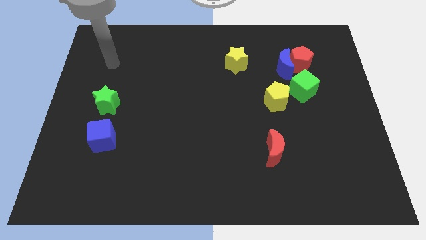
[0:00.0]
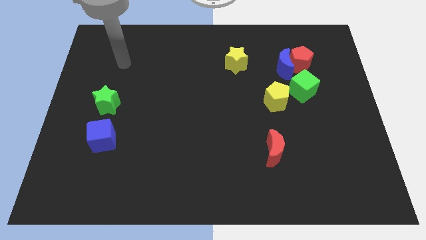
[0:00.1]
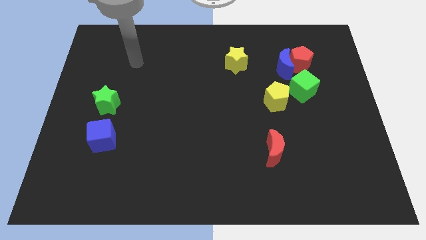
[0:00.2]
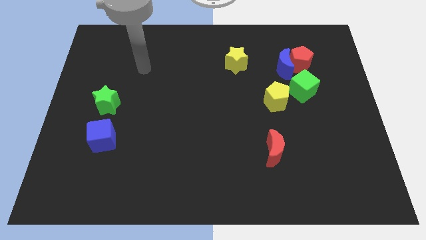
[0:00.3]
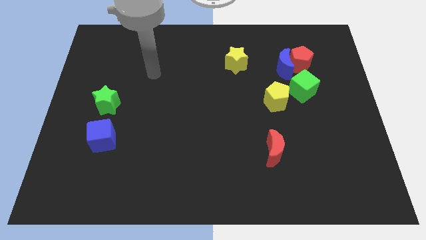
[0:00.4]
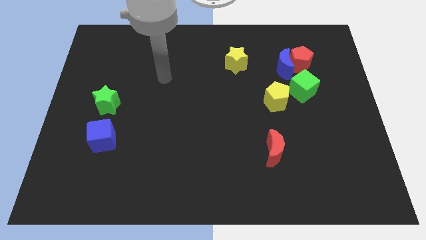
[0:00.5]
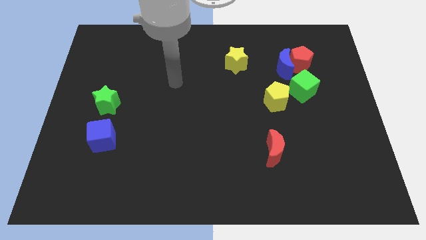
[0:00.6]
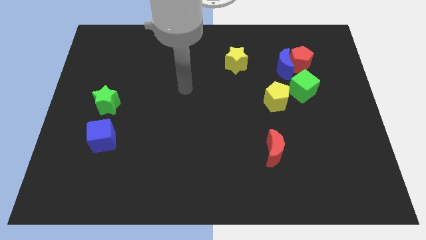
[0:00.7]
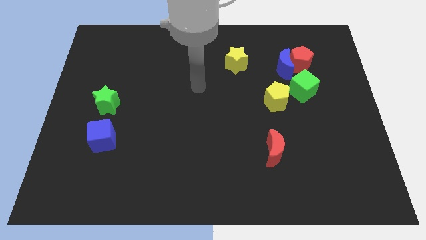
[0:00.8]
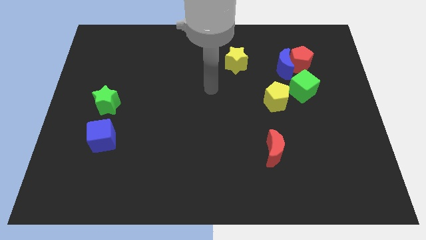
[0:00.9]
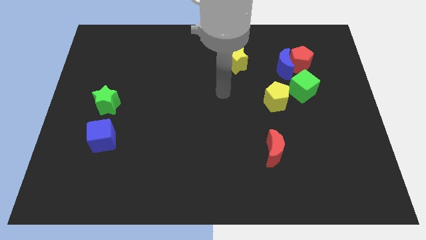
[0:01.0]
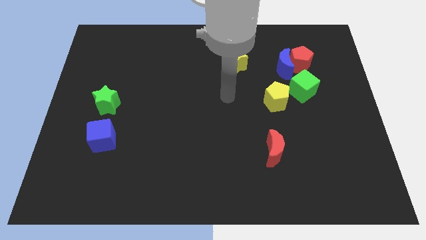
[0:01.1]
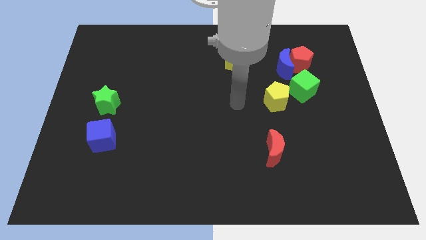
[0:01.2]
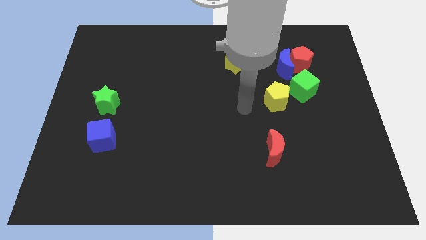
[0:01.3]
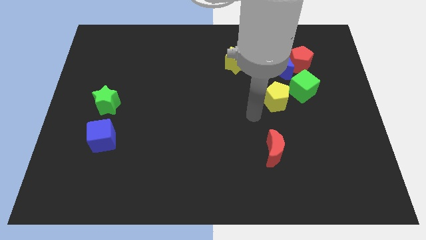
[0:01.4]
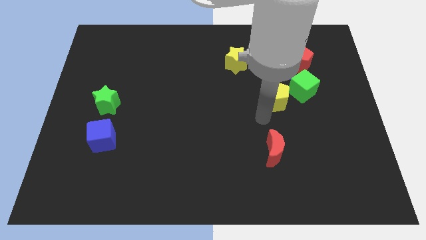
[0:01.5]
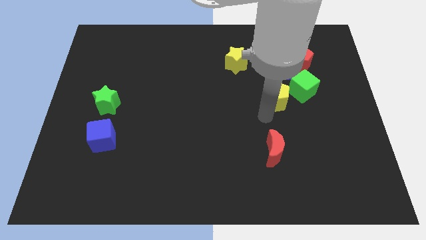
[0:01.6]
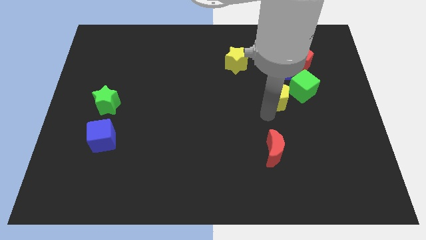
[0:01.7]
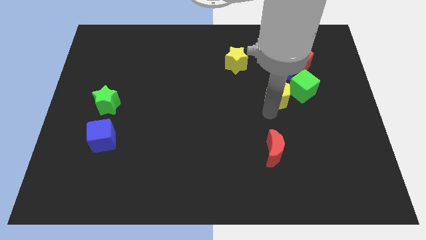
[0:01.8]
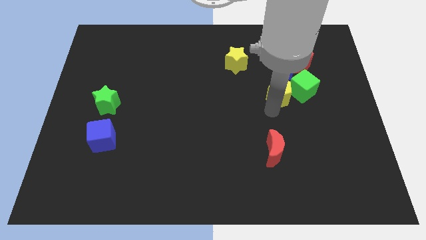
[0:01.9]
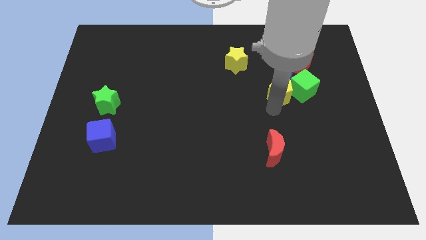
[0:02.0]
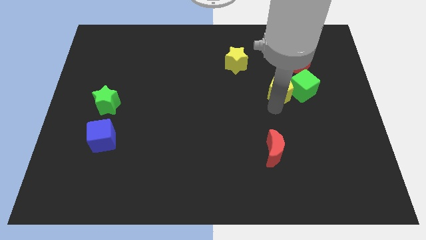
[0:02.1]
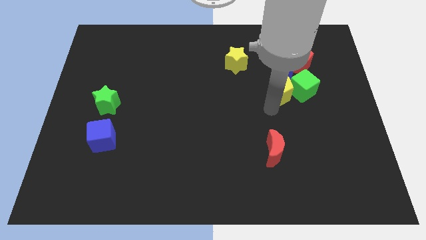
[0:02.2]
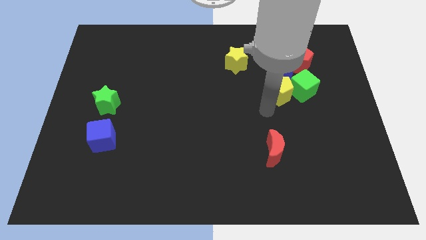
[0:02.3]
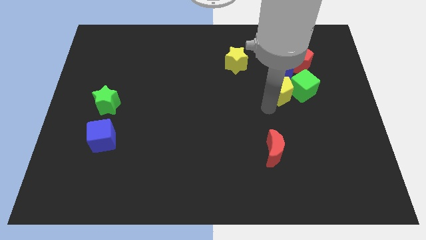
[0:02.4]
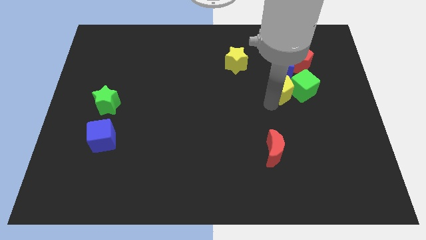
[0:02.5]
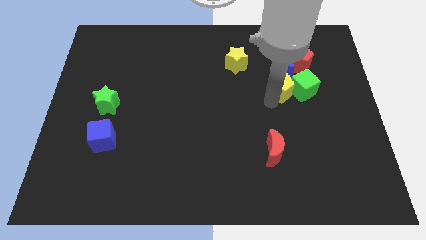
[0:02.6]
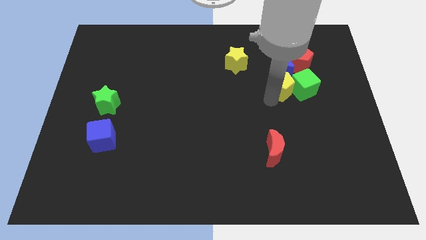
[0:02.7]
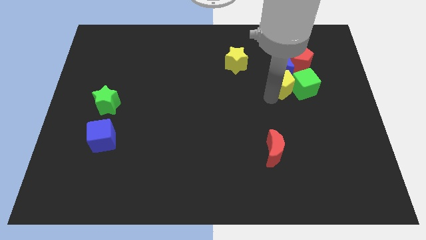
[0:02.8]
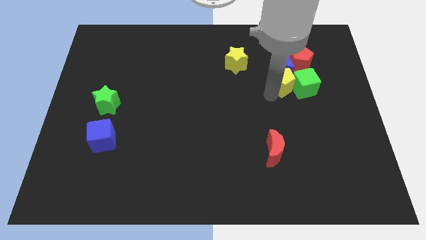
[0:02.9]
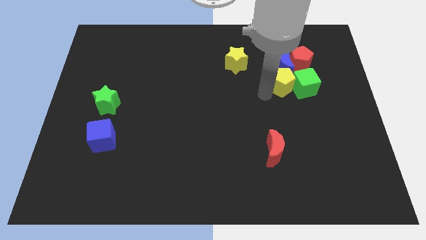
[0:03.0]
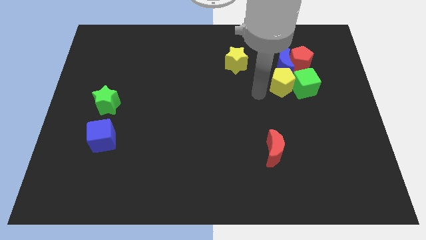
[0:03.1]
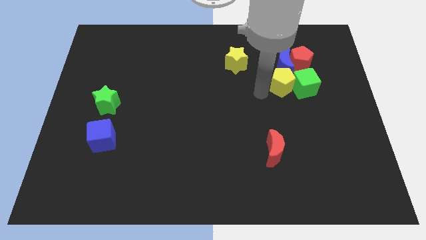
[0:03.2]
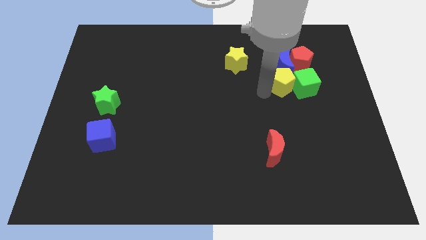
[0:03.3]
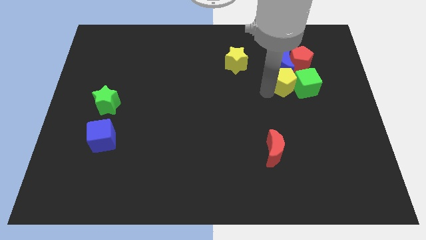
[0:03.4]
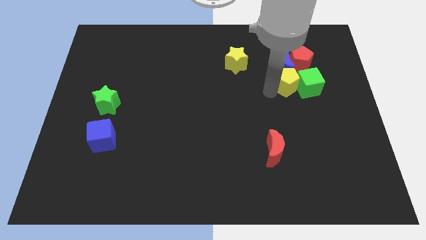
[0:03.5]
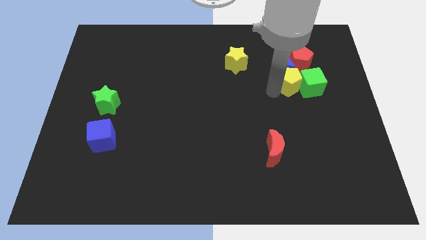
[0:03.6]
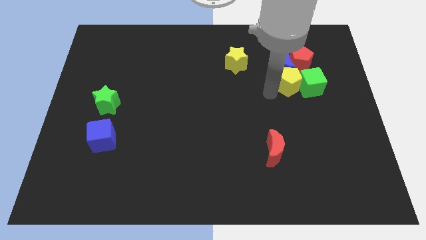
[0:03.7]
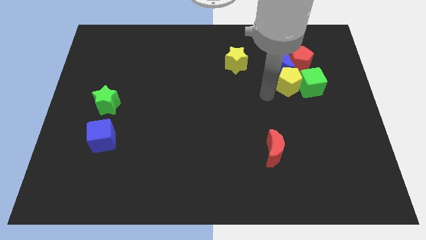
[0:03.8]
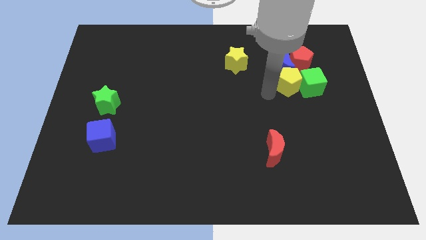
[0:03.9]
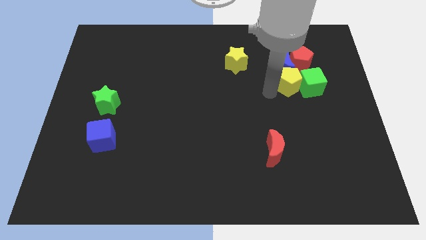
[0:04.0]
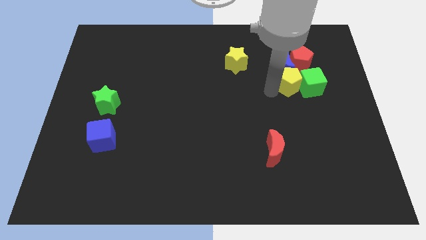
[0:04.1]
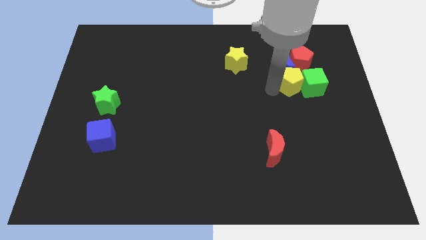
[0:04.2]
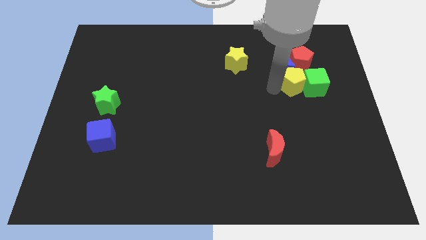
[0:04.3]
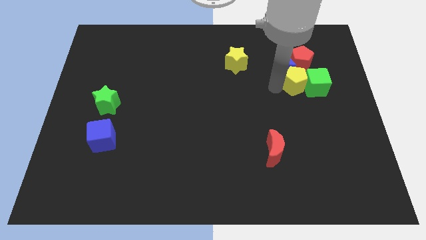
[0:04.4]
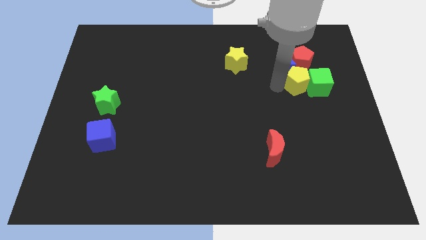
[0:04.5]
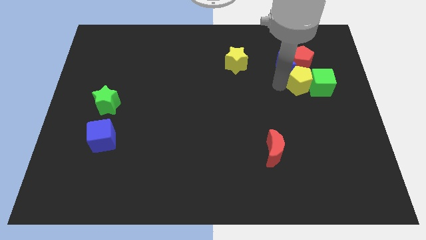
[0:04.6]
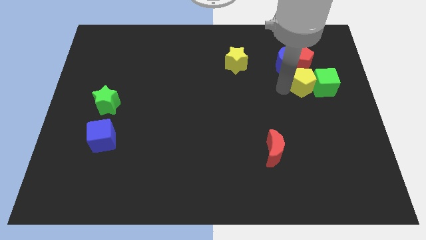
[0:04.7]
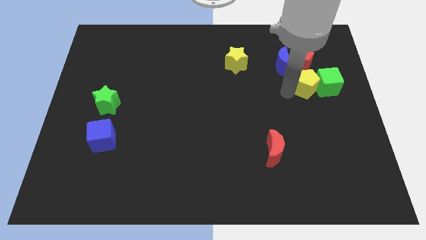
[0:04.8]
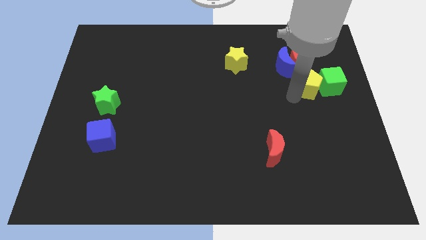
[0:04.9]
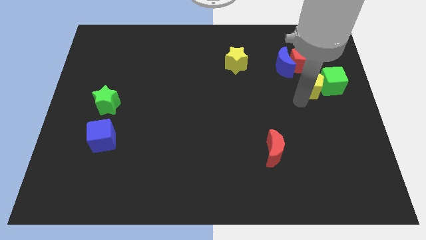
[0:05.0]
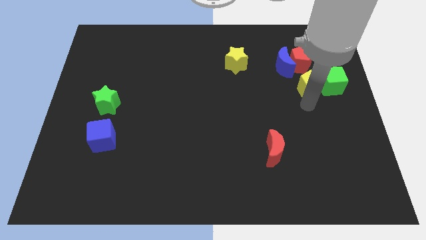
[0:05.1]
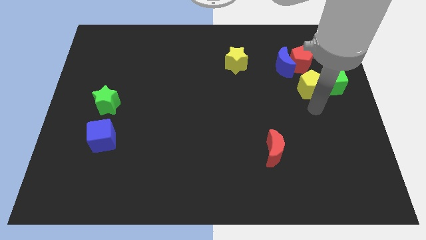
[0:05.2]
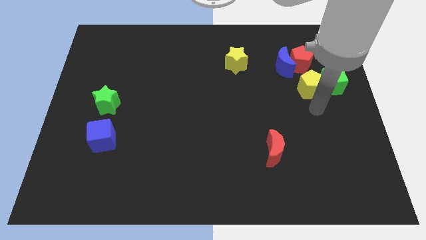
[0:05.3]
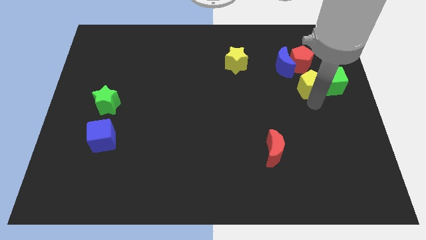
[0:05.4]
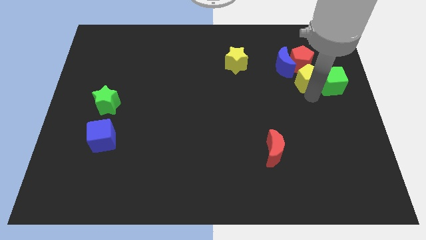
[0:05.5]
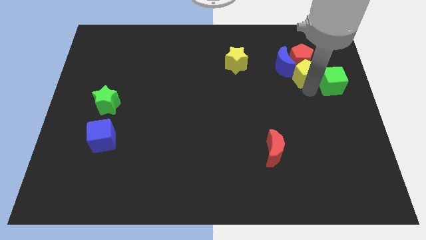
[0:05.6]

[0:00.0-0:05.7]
slide the yellow pentagon towards the red pentagon

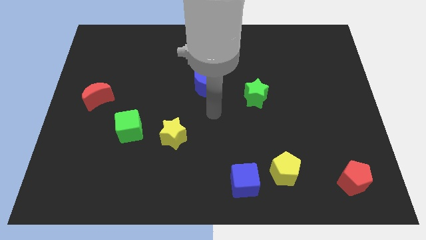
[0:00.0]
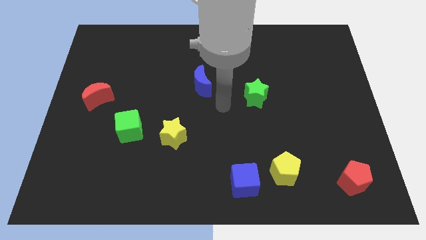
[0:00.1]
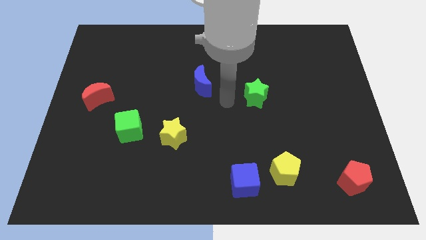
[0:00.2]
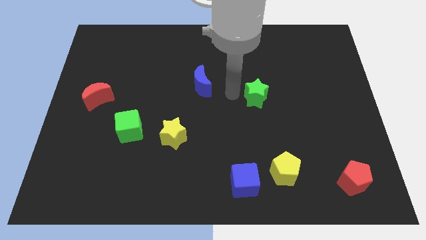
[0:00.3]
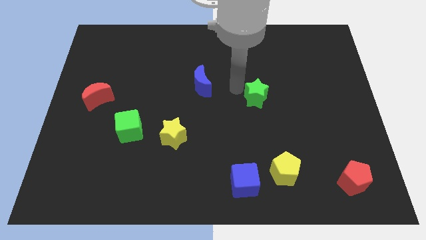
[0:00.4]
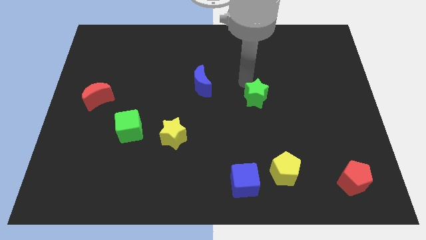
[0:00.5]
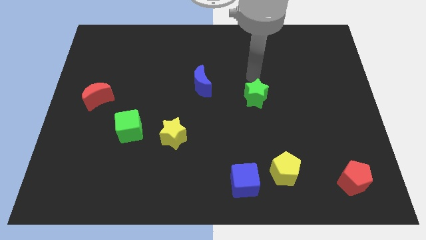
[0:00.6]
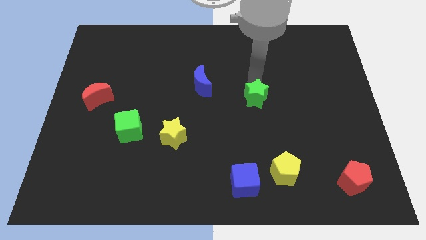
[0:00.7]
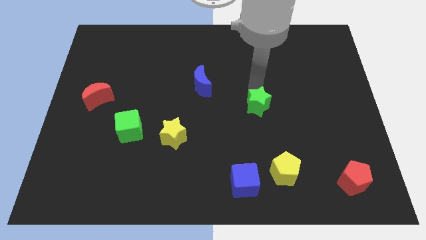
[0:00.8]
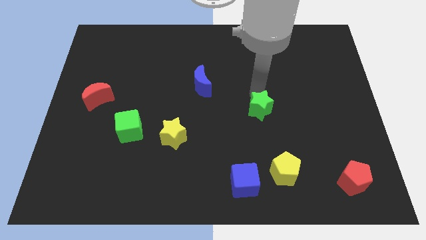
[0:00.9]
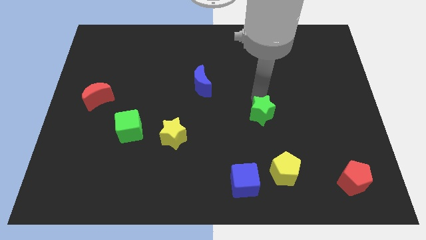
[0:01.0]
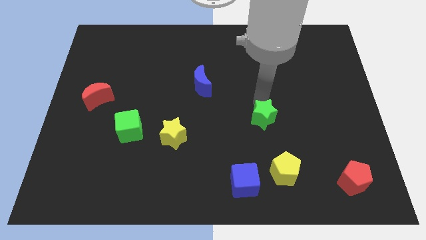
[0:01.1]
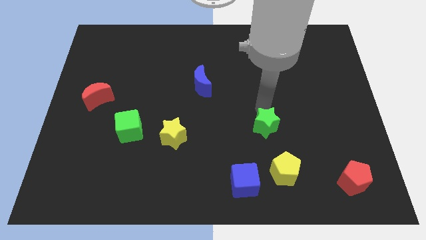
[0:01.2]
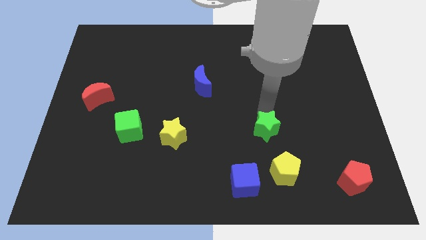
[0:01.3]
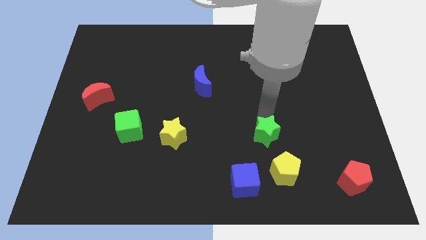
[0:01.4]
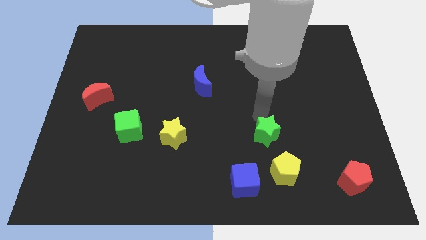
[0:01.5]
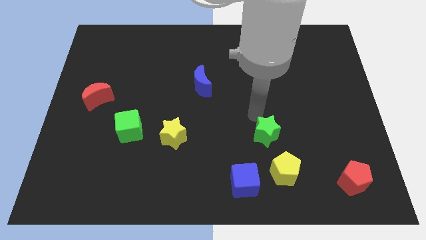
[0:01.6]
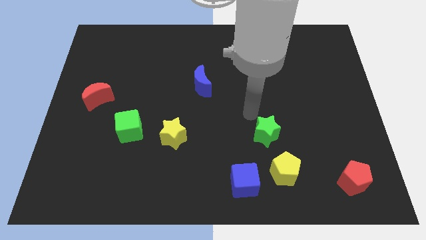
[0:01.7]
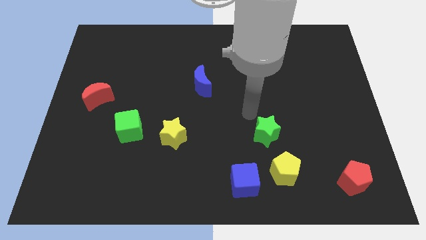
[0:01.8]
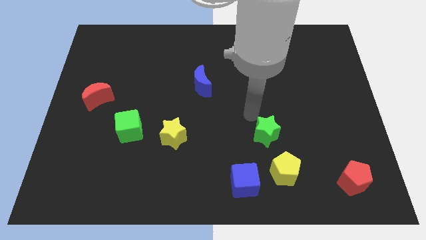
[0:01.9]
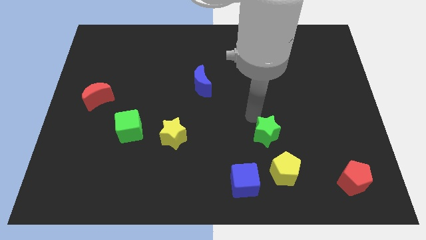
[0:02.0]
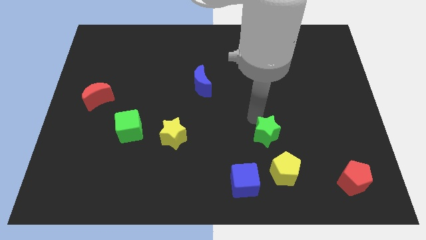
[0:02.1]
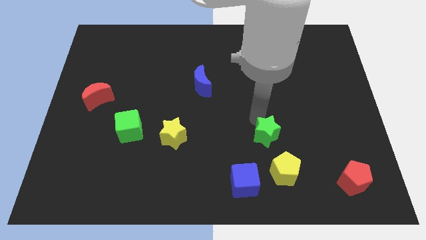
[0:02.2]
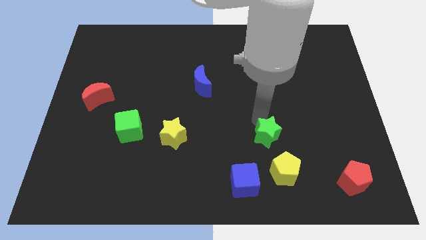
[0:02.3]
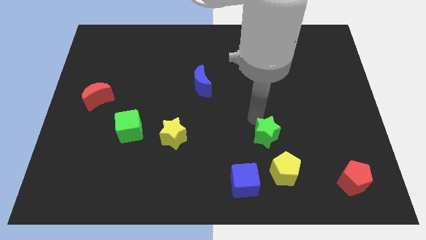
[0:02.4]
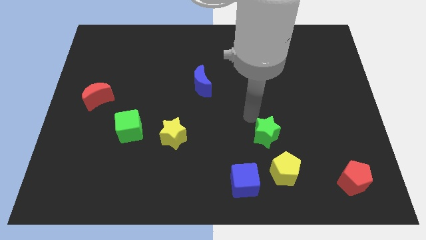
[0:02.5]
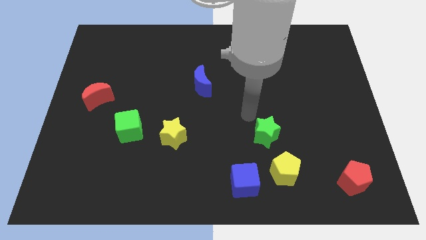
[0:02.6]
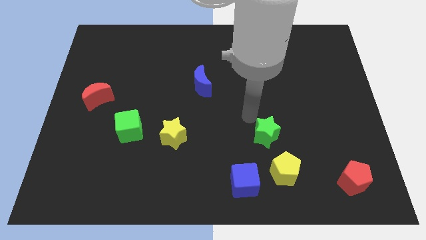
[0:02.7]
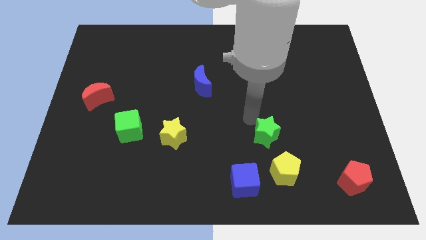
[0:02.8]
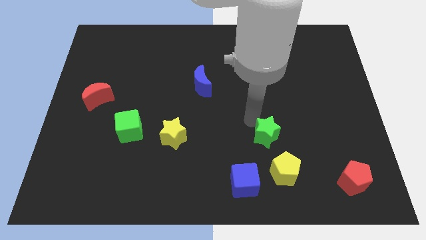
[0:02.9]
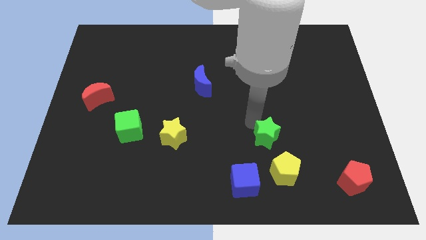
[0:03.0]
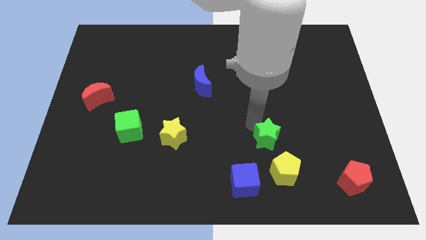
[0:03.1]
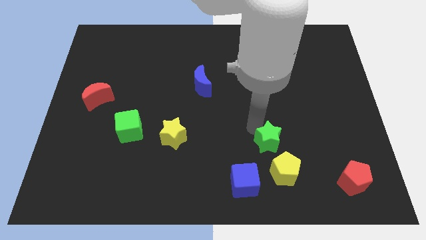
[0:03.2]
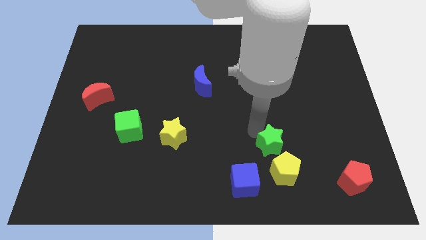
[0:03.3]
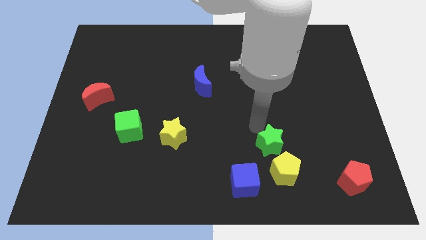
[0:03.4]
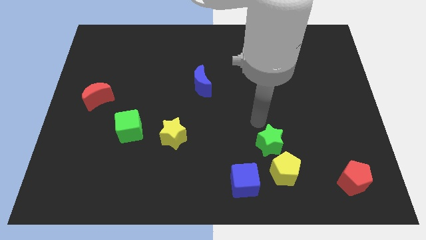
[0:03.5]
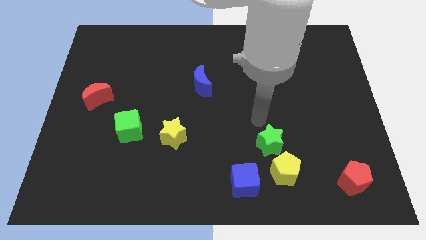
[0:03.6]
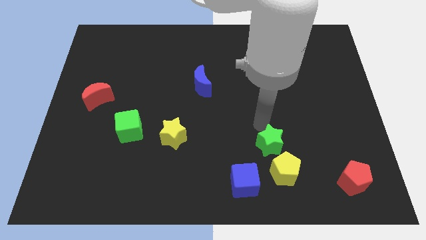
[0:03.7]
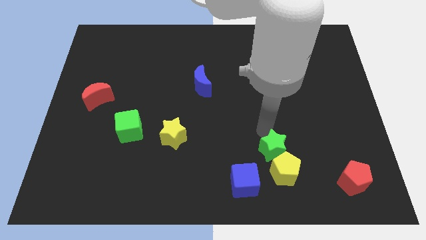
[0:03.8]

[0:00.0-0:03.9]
slide the green star close to the yellow pentagon
